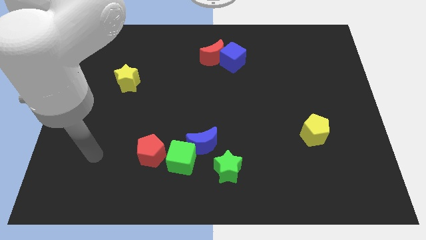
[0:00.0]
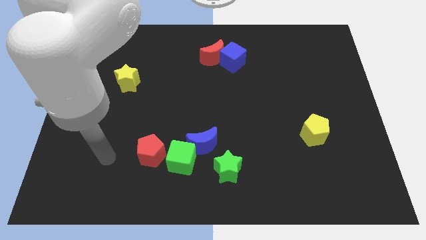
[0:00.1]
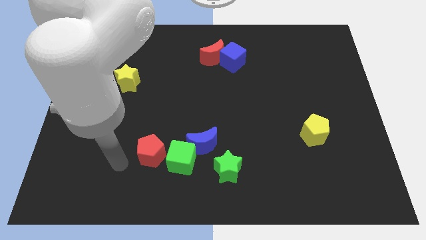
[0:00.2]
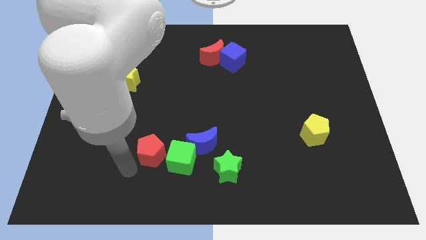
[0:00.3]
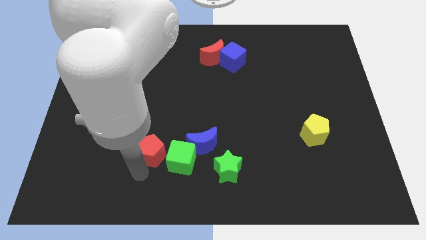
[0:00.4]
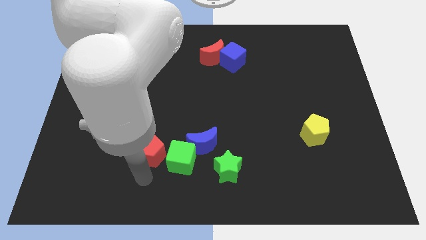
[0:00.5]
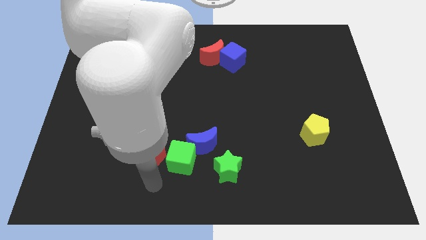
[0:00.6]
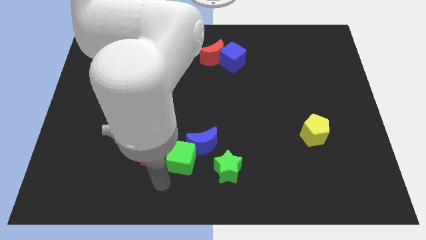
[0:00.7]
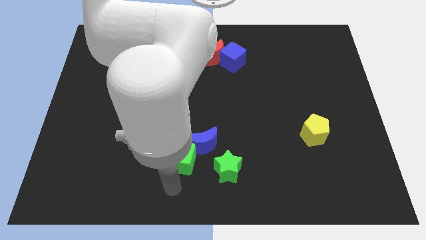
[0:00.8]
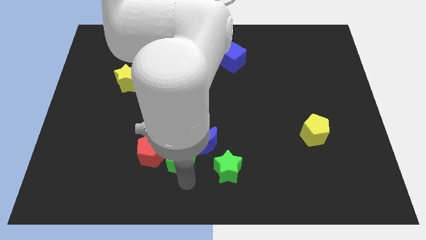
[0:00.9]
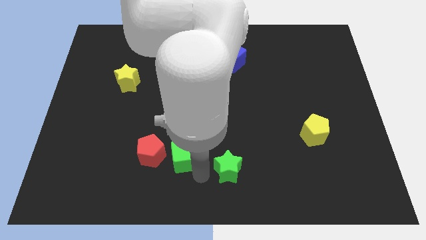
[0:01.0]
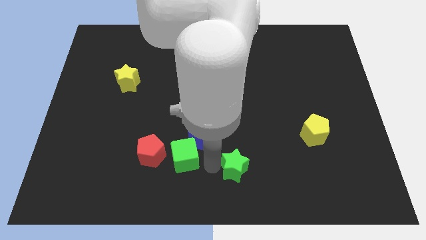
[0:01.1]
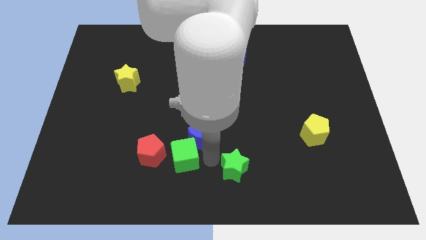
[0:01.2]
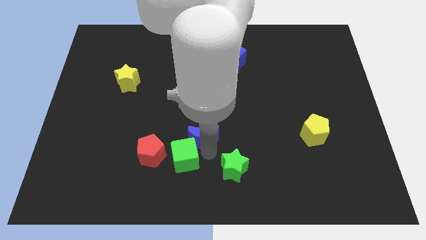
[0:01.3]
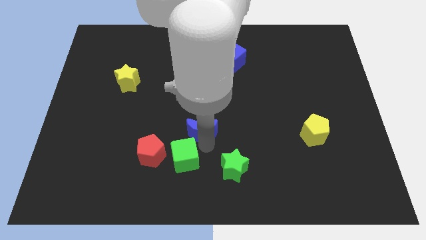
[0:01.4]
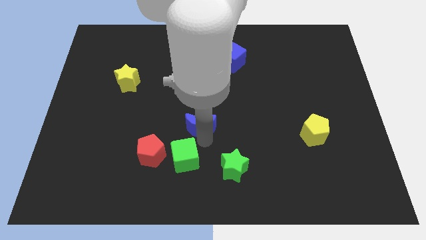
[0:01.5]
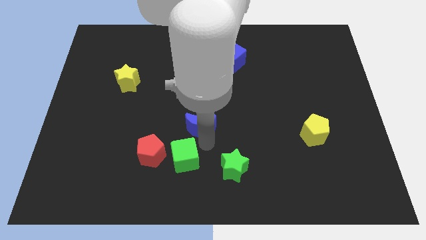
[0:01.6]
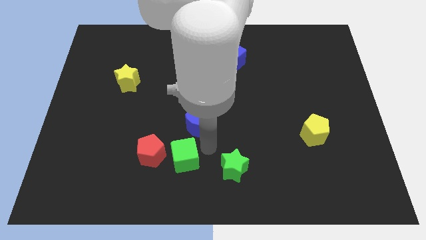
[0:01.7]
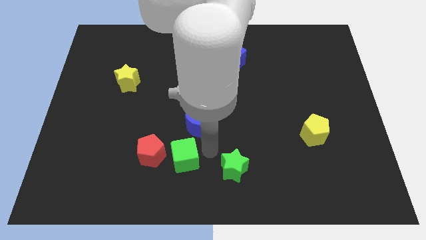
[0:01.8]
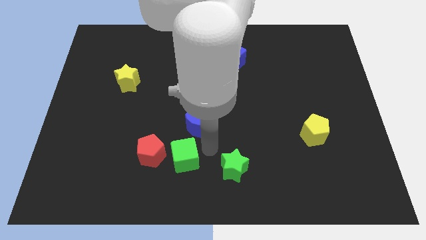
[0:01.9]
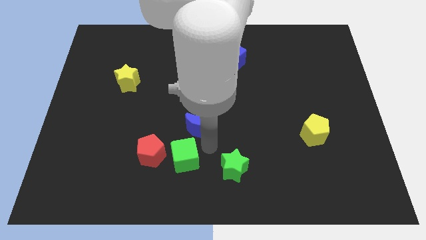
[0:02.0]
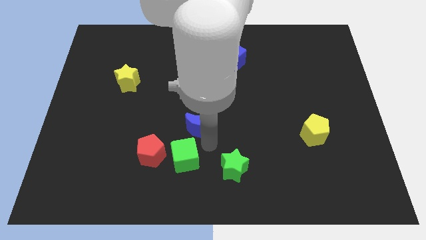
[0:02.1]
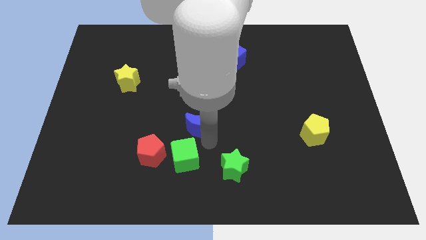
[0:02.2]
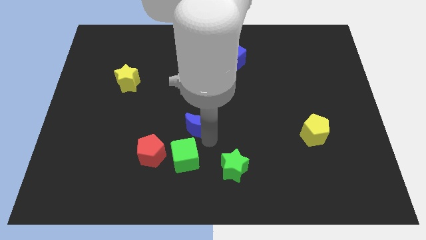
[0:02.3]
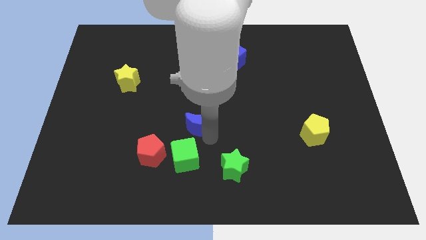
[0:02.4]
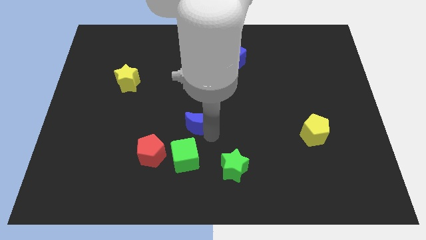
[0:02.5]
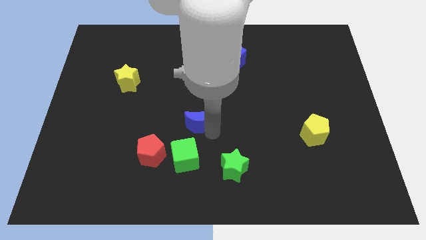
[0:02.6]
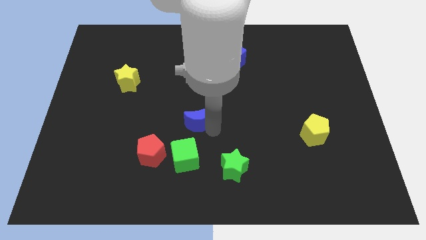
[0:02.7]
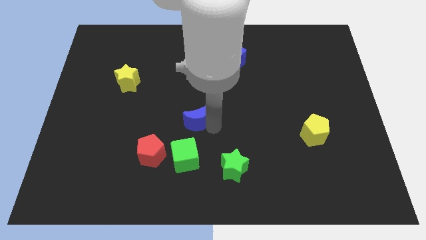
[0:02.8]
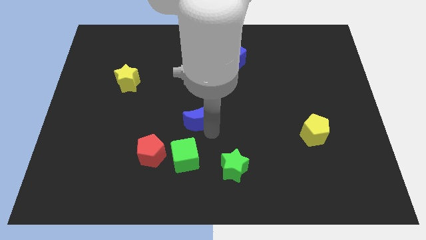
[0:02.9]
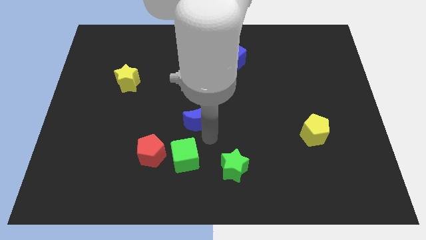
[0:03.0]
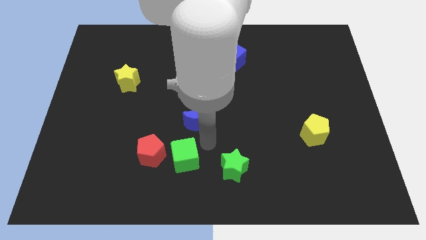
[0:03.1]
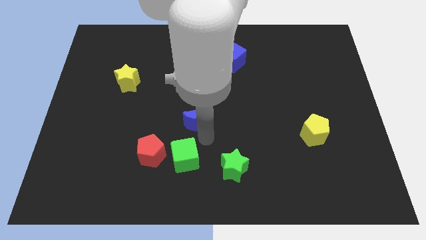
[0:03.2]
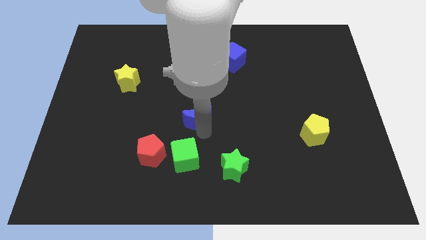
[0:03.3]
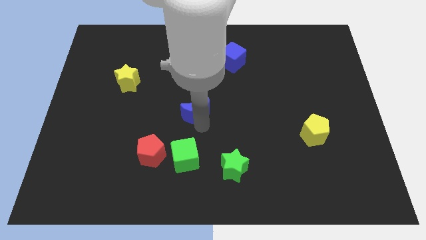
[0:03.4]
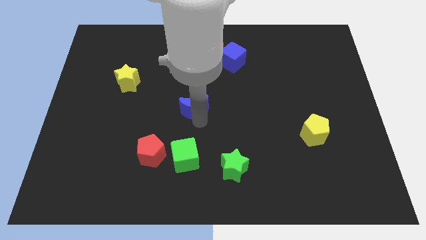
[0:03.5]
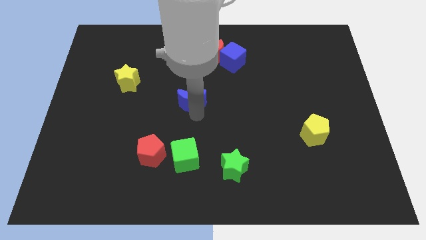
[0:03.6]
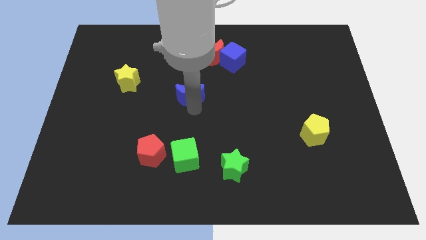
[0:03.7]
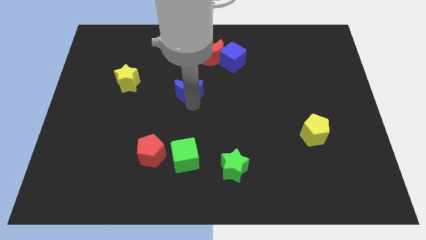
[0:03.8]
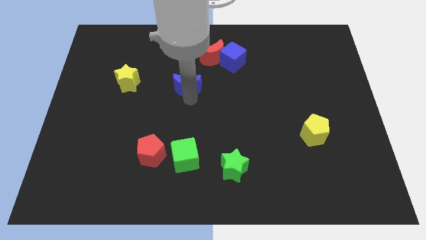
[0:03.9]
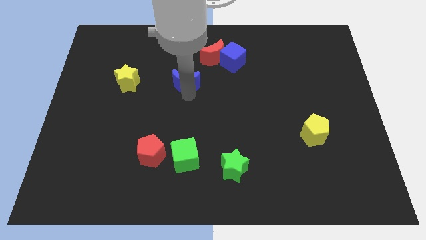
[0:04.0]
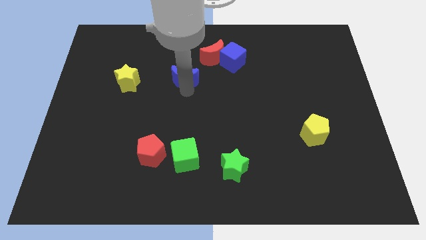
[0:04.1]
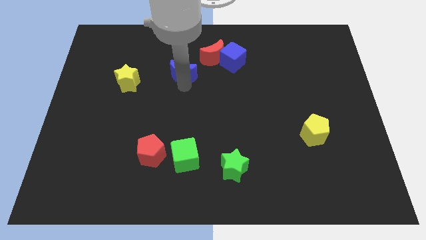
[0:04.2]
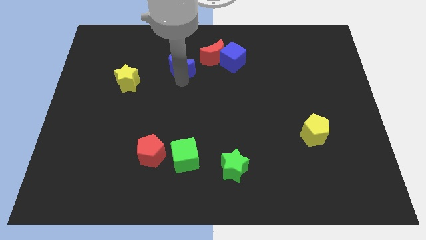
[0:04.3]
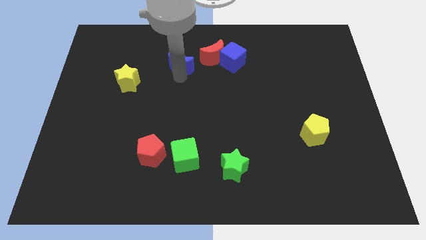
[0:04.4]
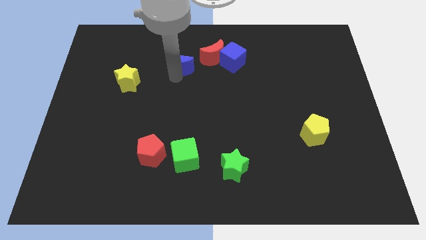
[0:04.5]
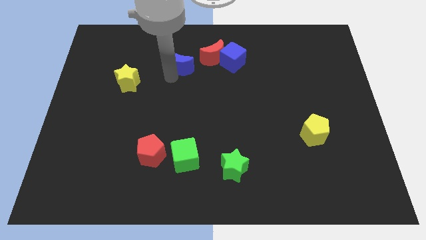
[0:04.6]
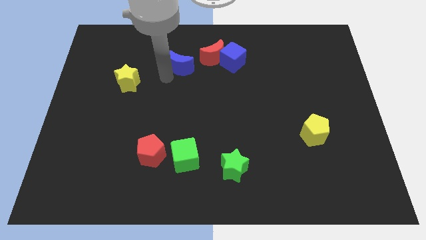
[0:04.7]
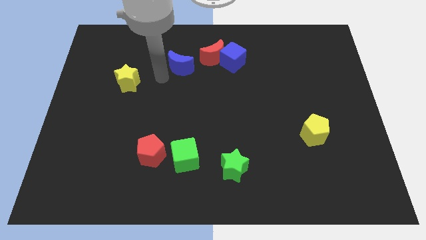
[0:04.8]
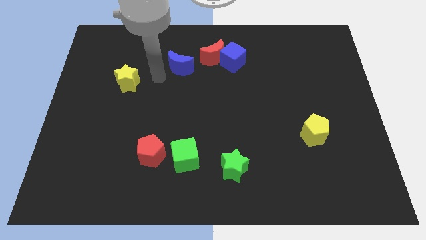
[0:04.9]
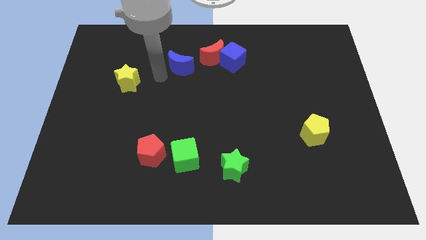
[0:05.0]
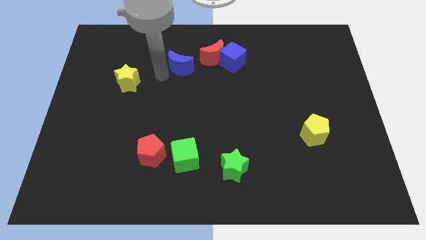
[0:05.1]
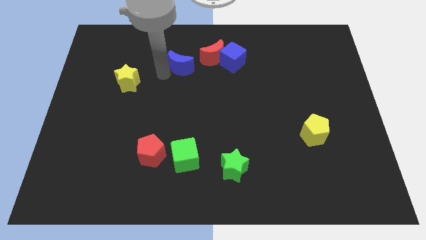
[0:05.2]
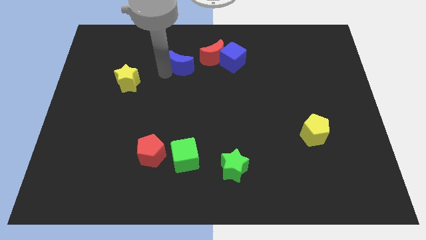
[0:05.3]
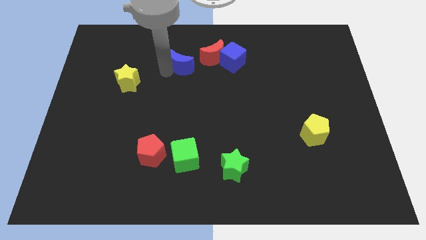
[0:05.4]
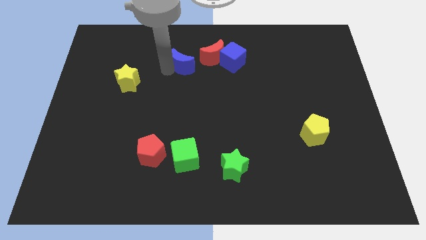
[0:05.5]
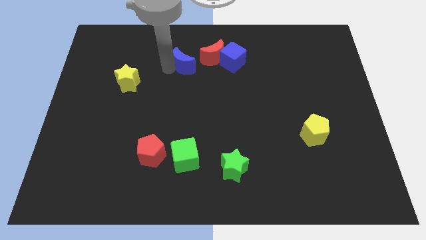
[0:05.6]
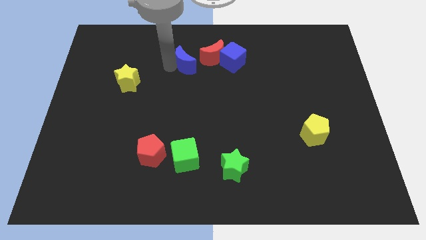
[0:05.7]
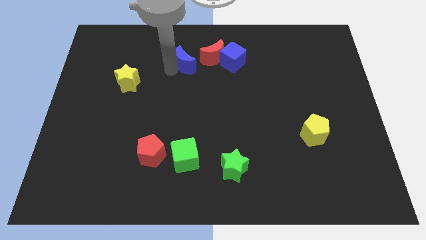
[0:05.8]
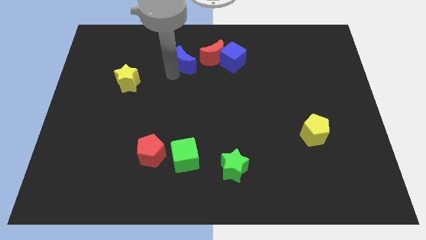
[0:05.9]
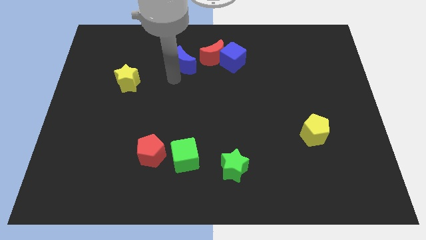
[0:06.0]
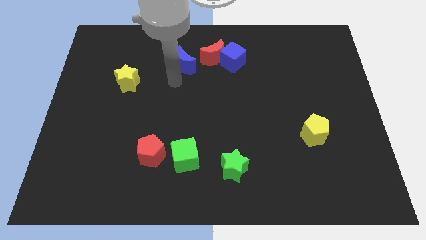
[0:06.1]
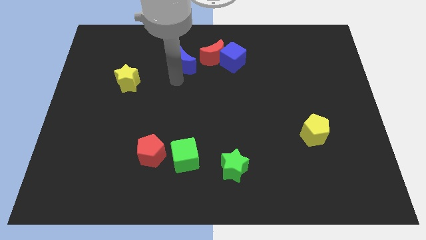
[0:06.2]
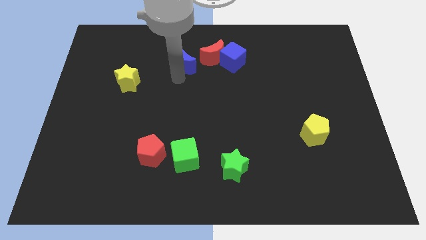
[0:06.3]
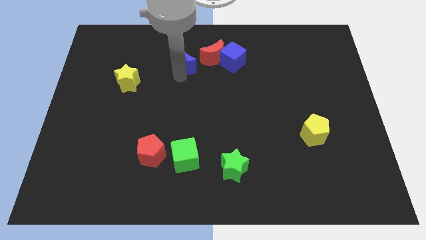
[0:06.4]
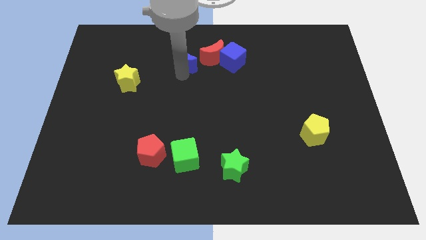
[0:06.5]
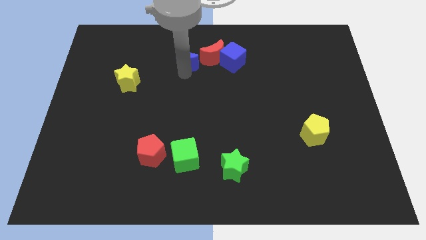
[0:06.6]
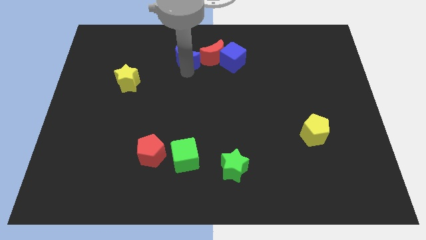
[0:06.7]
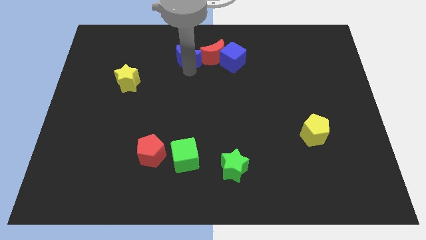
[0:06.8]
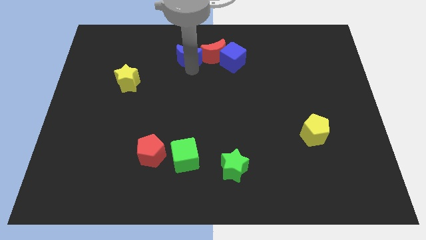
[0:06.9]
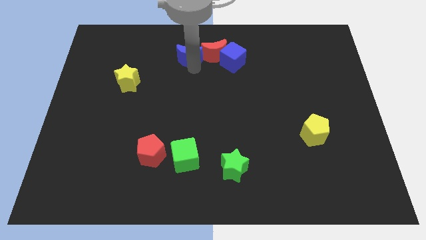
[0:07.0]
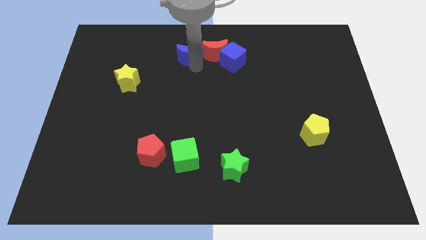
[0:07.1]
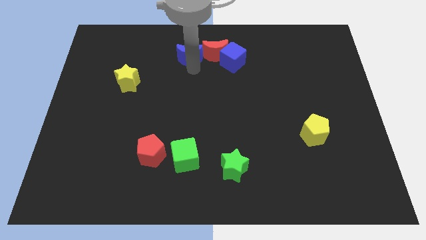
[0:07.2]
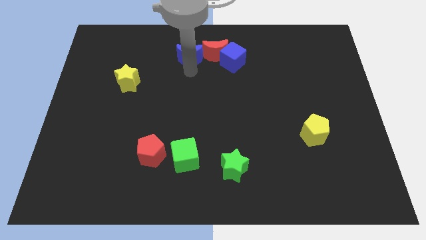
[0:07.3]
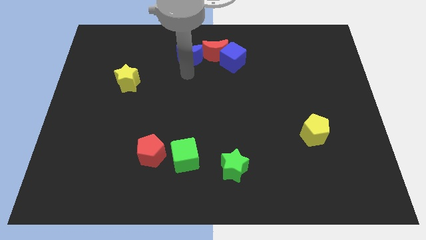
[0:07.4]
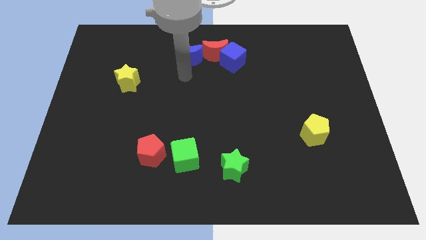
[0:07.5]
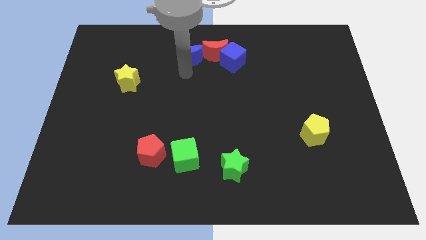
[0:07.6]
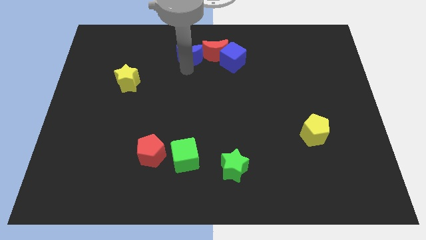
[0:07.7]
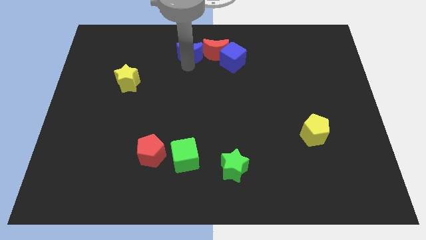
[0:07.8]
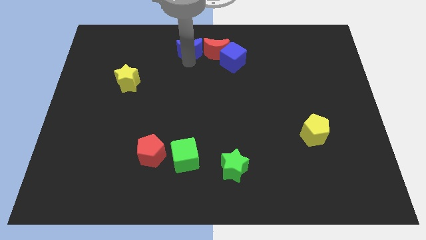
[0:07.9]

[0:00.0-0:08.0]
put the blue moon to the towards your base
